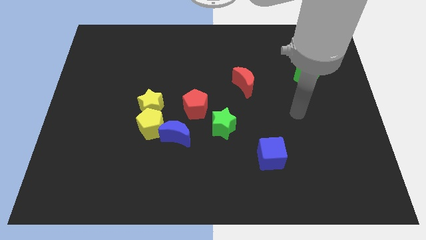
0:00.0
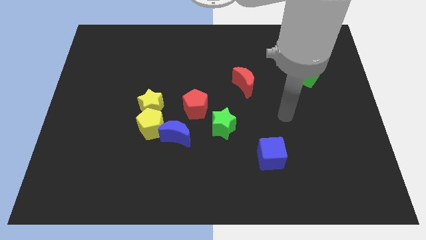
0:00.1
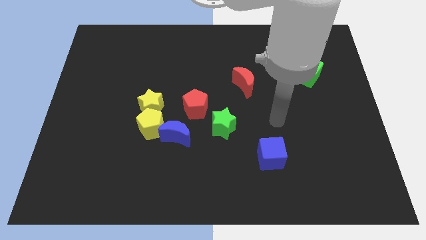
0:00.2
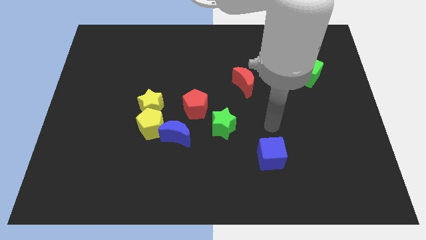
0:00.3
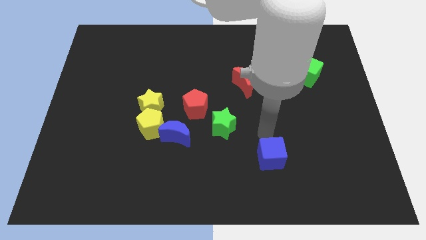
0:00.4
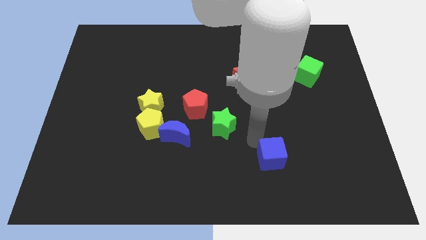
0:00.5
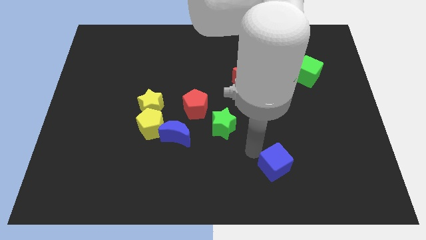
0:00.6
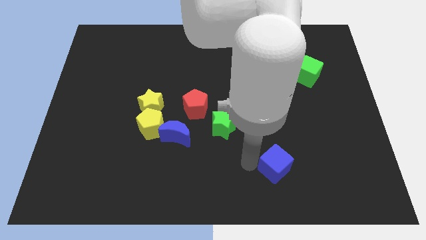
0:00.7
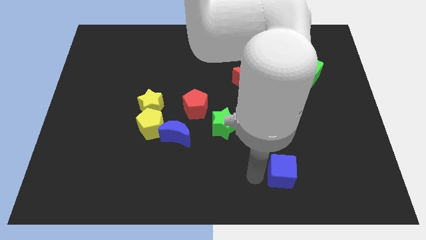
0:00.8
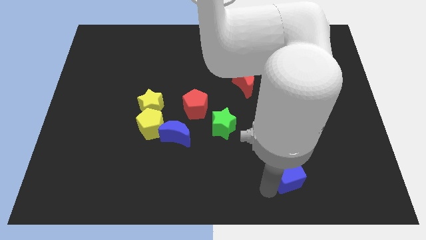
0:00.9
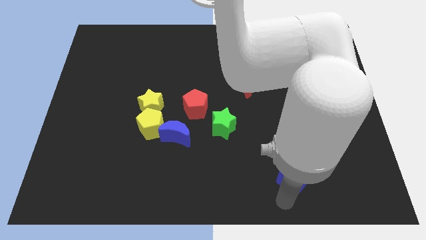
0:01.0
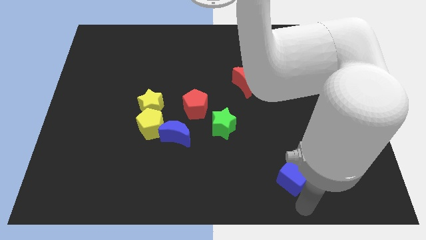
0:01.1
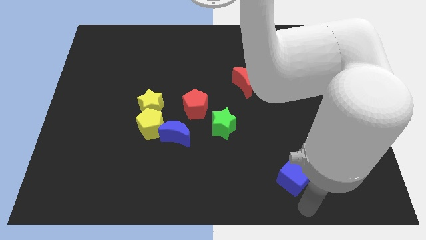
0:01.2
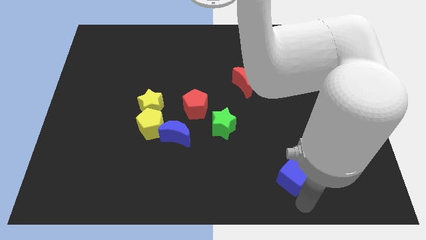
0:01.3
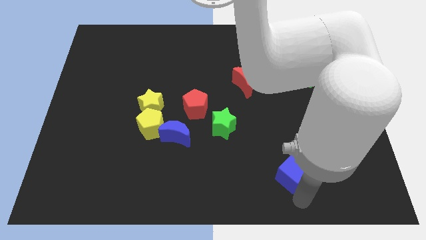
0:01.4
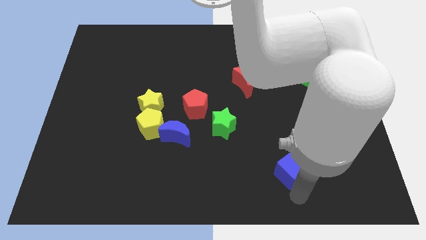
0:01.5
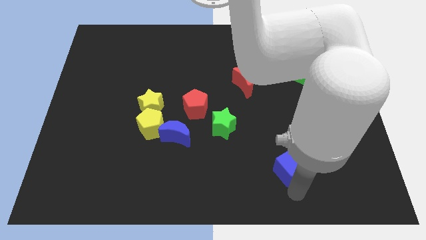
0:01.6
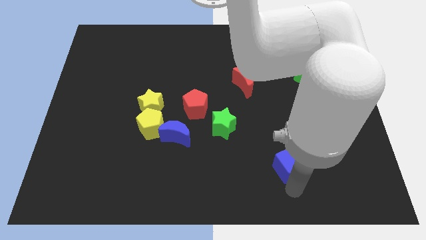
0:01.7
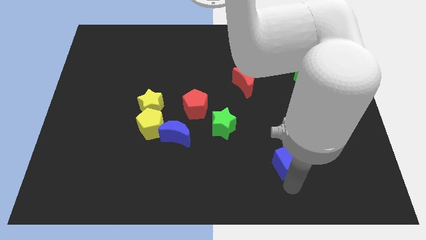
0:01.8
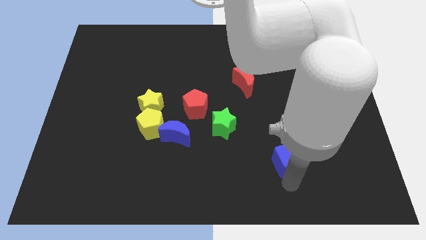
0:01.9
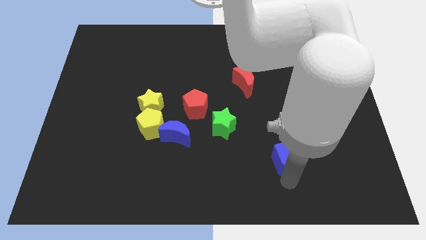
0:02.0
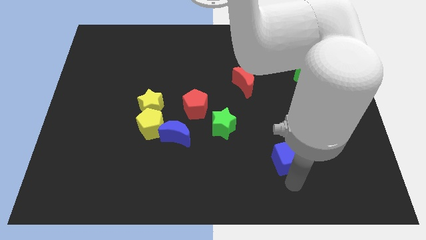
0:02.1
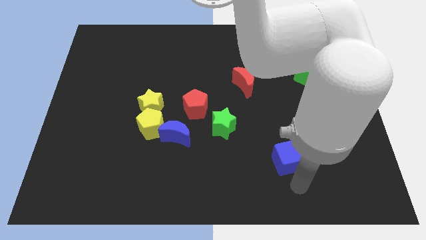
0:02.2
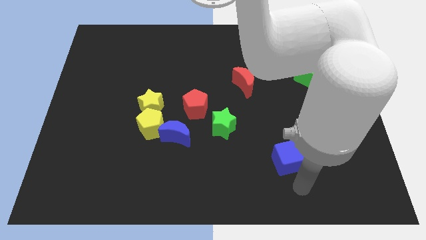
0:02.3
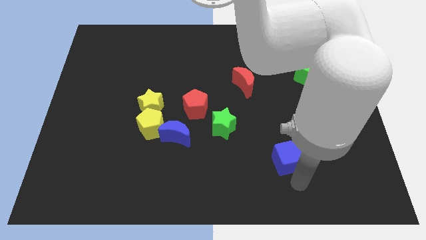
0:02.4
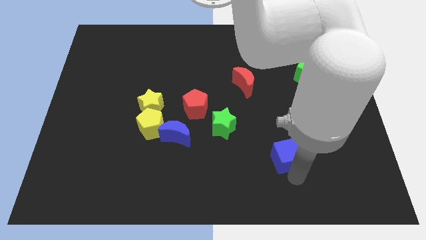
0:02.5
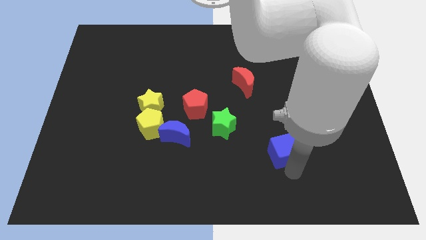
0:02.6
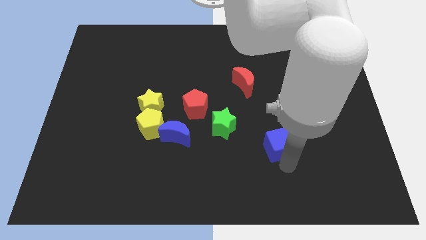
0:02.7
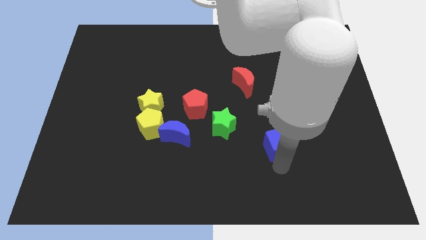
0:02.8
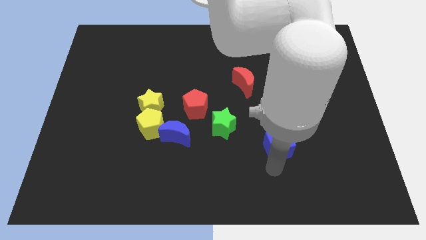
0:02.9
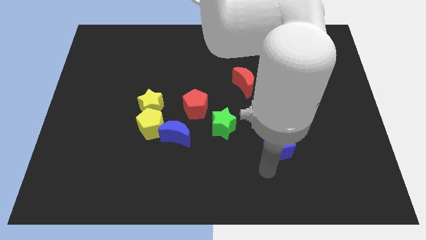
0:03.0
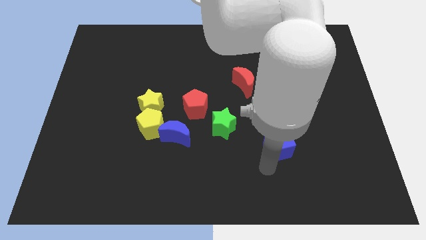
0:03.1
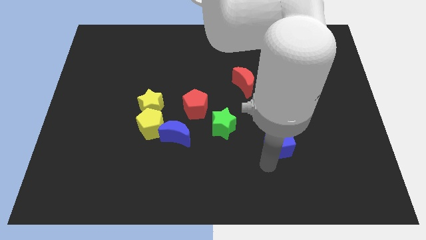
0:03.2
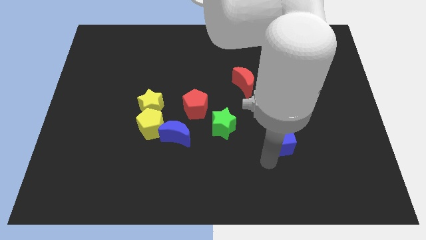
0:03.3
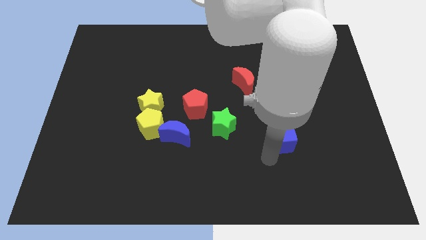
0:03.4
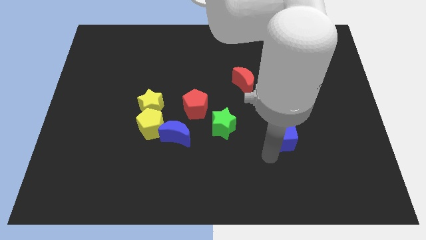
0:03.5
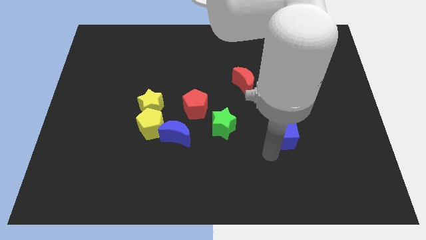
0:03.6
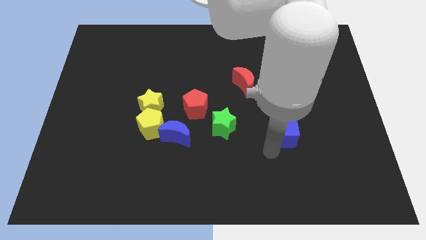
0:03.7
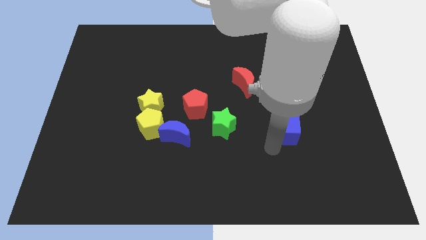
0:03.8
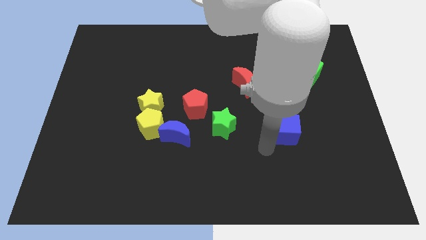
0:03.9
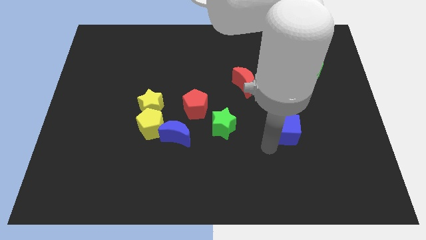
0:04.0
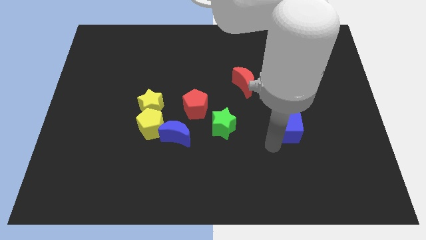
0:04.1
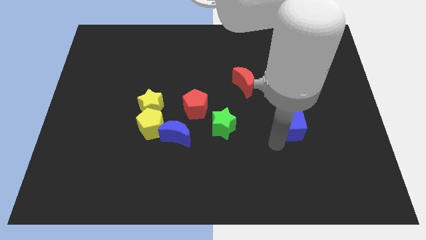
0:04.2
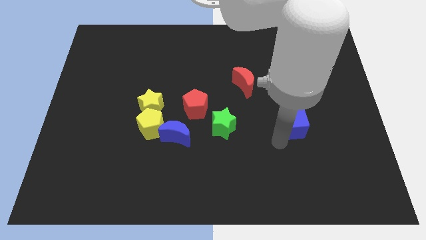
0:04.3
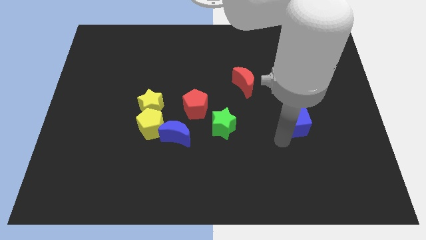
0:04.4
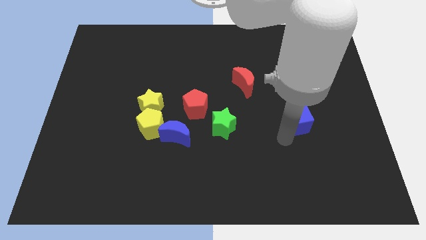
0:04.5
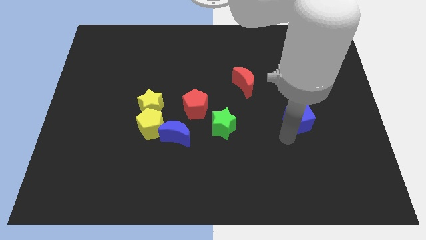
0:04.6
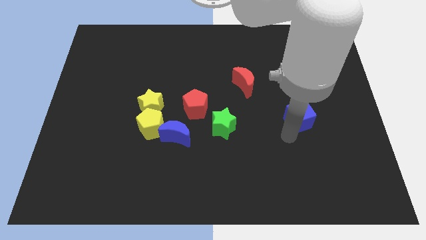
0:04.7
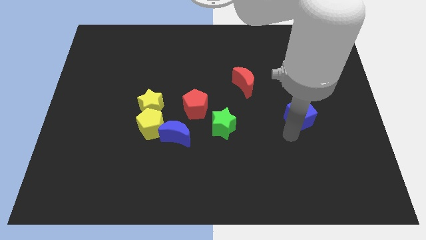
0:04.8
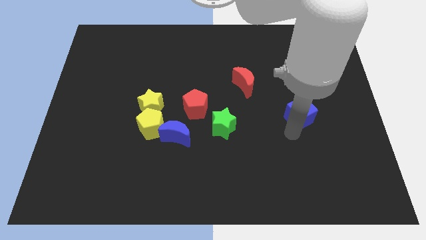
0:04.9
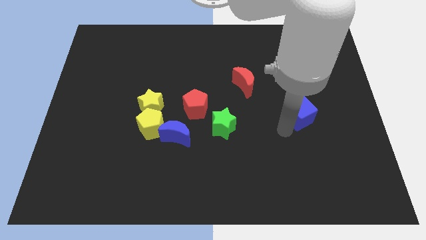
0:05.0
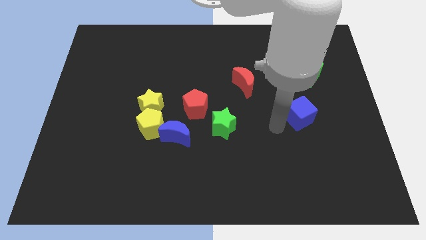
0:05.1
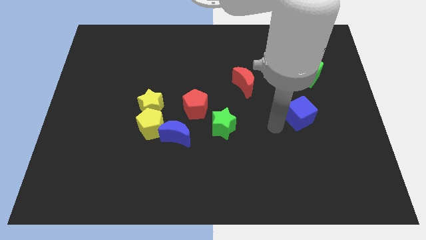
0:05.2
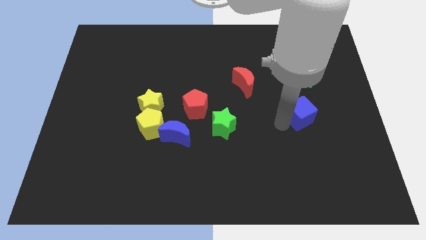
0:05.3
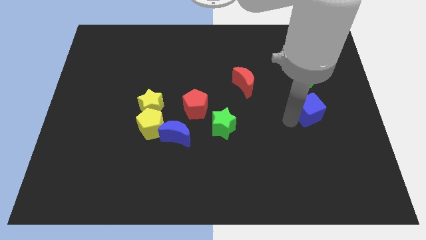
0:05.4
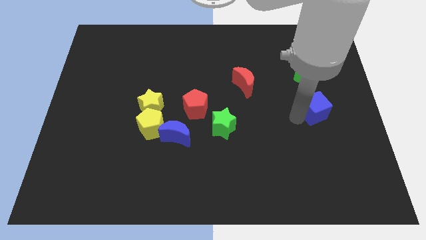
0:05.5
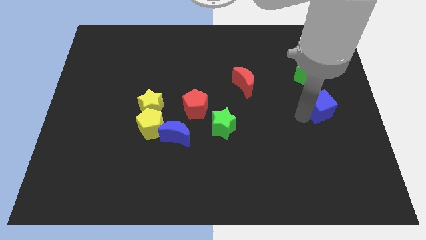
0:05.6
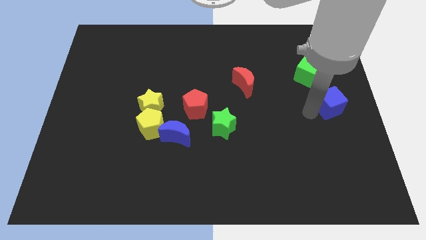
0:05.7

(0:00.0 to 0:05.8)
push the blue cube to the center right

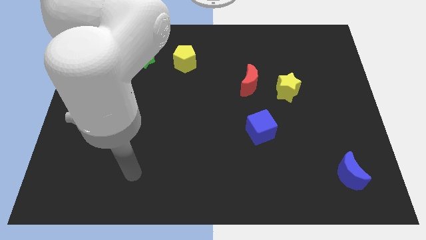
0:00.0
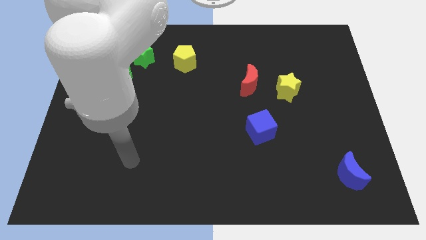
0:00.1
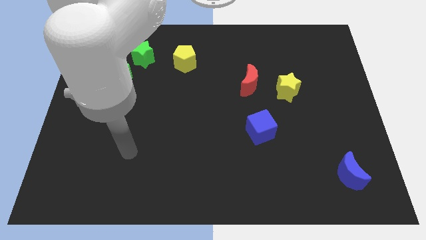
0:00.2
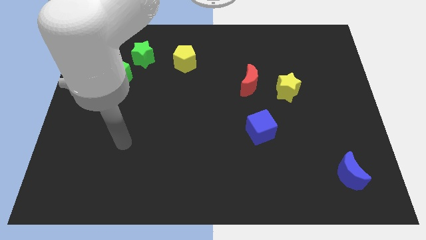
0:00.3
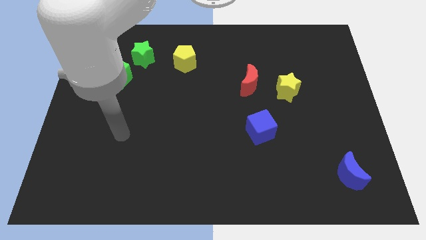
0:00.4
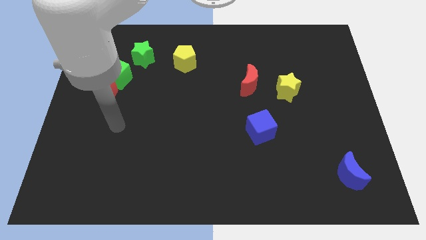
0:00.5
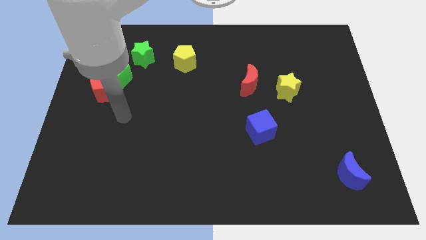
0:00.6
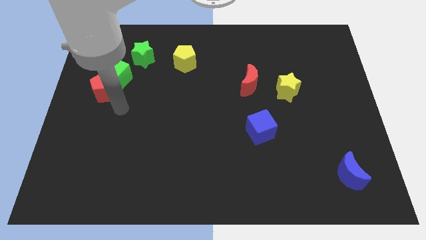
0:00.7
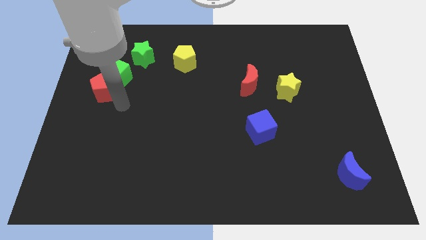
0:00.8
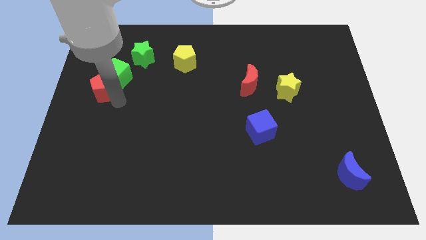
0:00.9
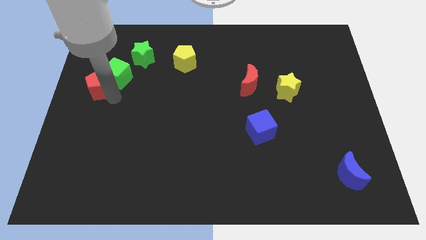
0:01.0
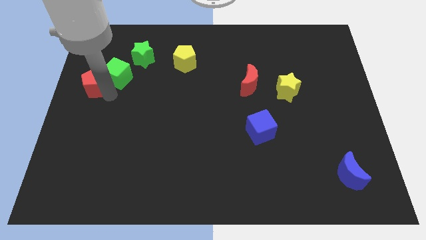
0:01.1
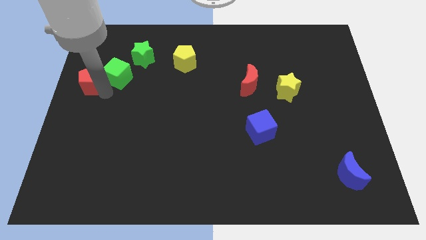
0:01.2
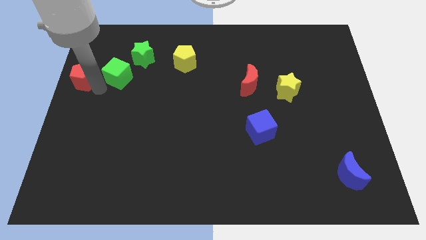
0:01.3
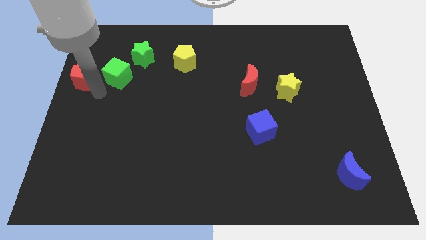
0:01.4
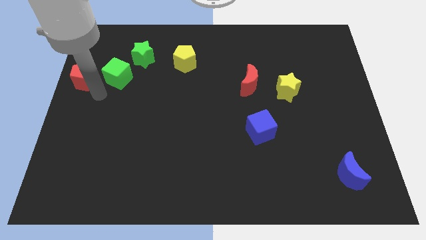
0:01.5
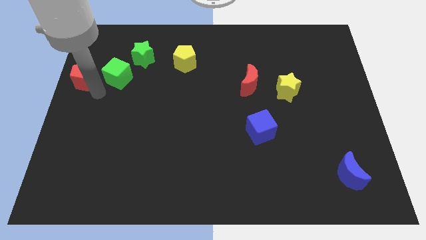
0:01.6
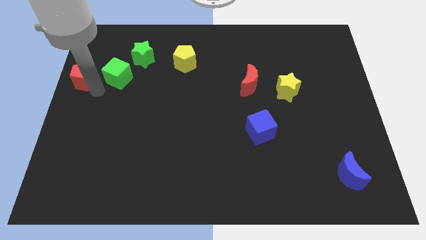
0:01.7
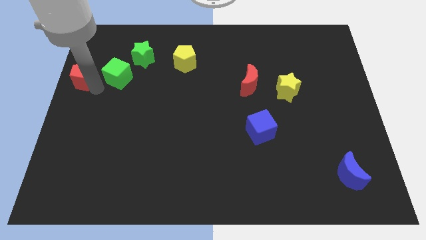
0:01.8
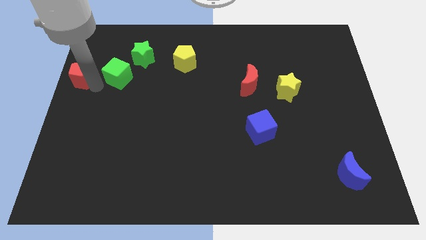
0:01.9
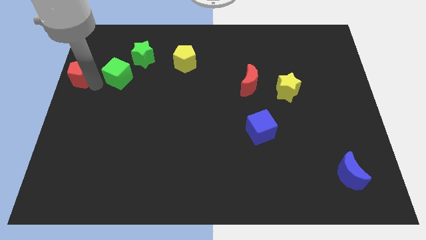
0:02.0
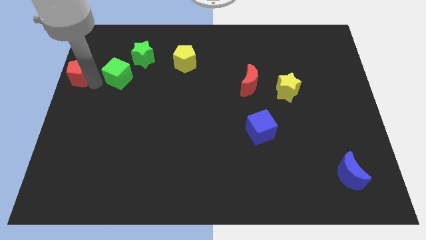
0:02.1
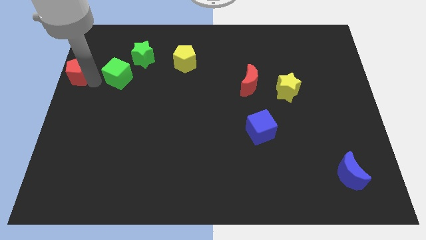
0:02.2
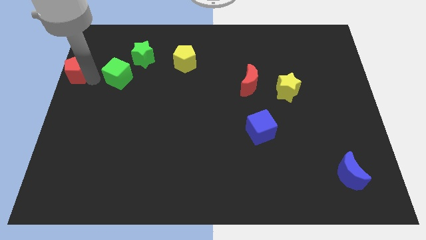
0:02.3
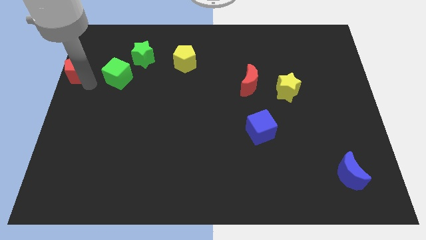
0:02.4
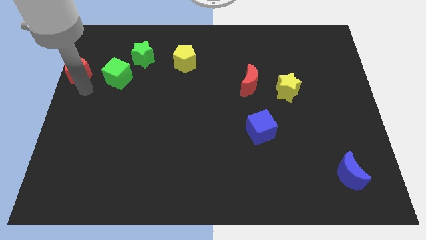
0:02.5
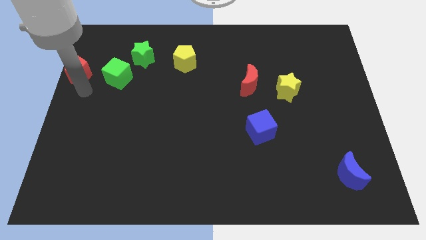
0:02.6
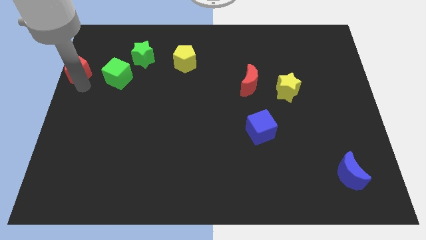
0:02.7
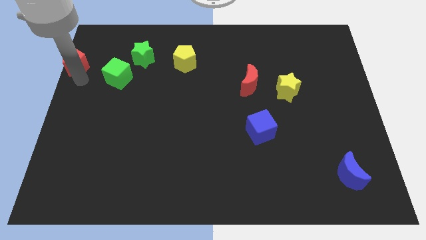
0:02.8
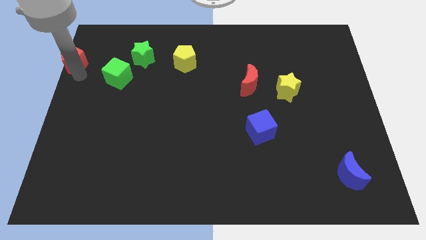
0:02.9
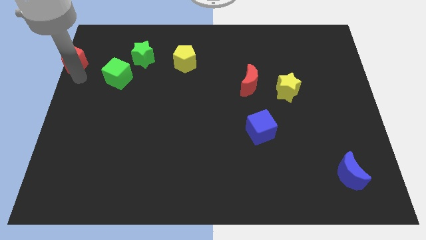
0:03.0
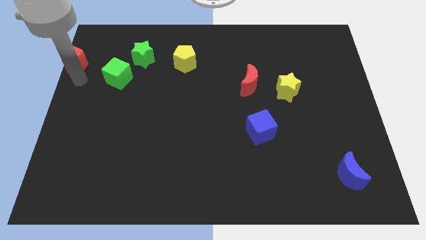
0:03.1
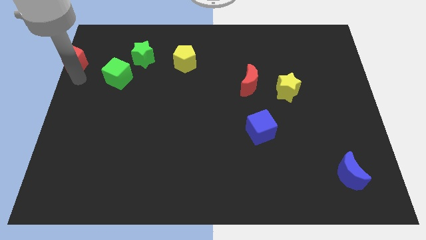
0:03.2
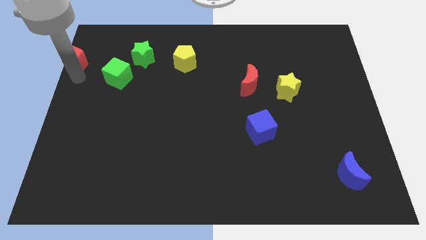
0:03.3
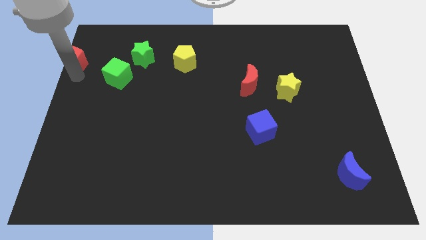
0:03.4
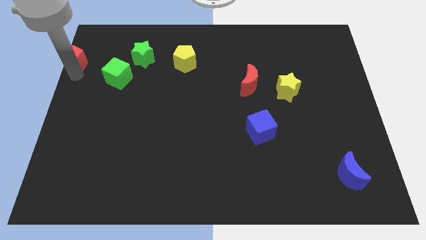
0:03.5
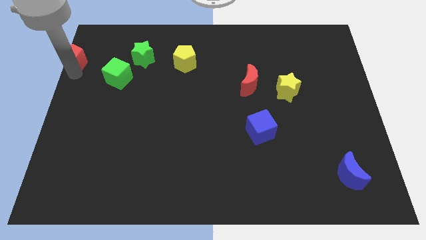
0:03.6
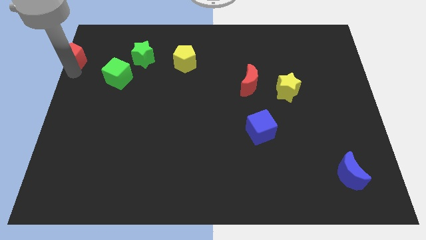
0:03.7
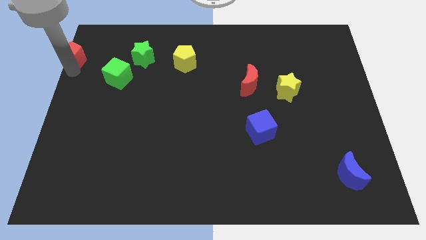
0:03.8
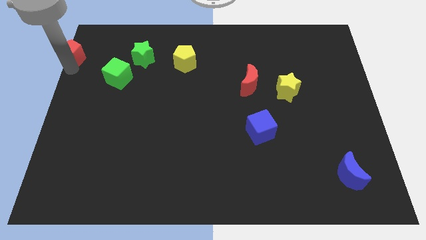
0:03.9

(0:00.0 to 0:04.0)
slide the red pentagon to the top left of the board
